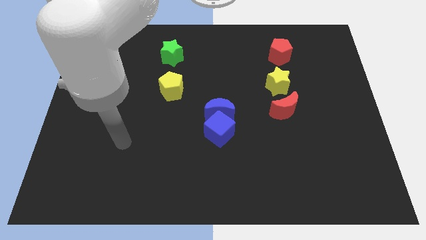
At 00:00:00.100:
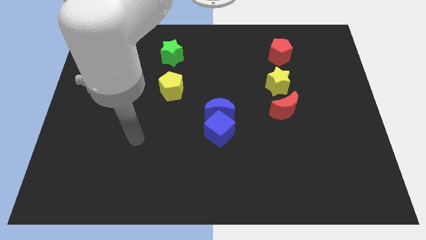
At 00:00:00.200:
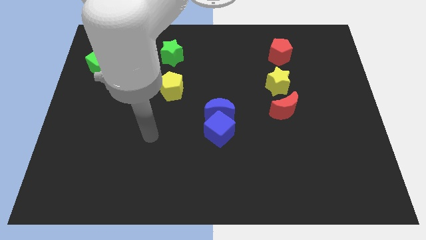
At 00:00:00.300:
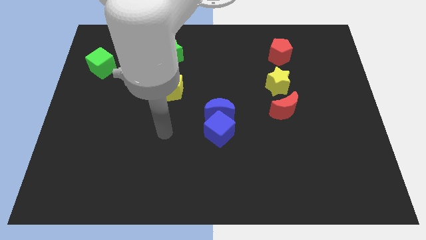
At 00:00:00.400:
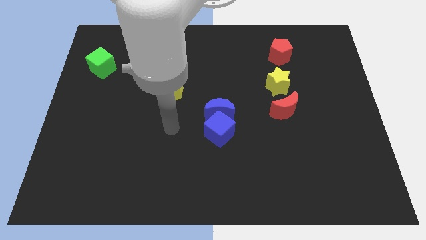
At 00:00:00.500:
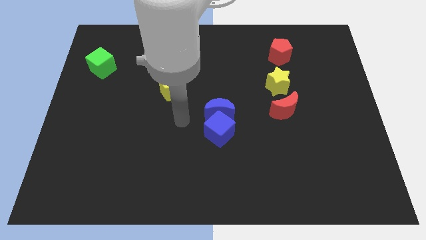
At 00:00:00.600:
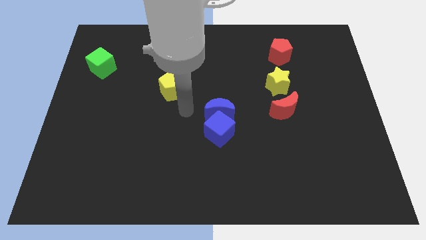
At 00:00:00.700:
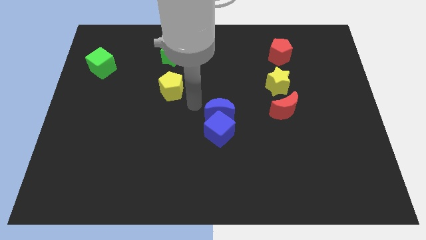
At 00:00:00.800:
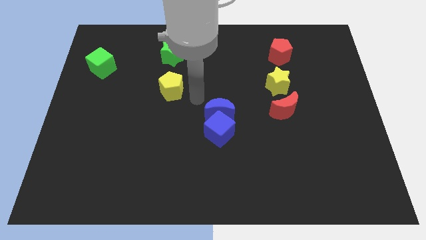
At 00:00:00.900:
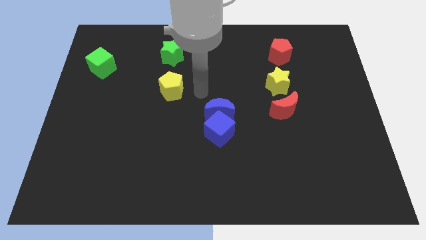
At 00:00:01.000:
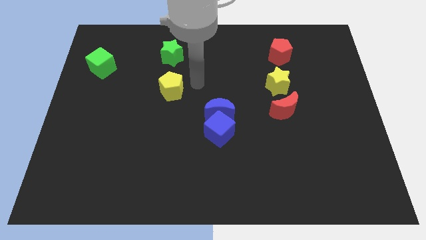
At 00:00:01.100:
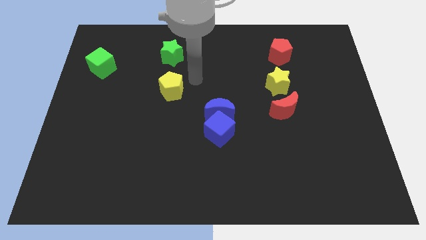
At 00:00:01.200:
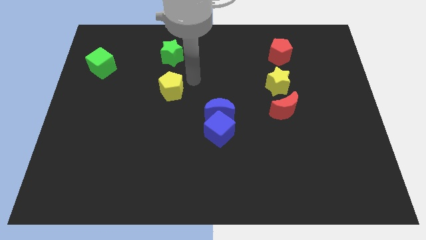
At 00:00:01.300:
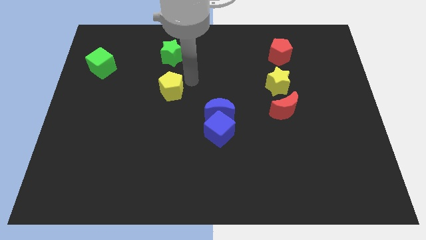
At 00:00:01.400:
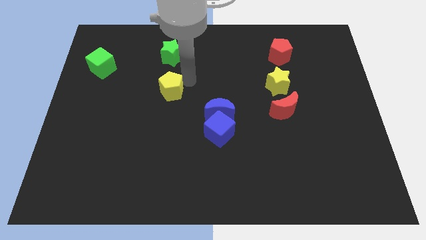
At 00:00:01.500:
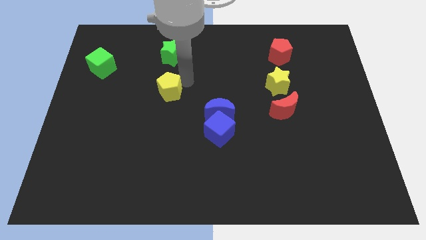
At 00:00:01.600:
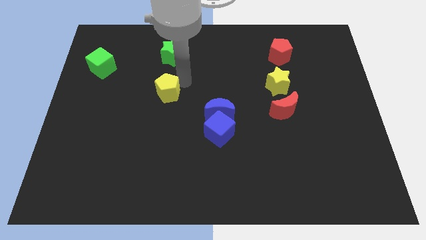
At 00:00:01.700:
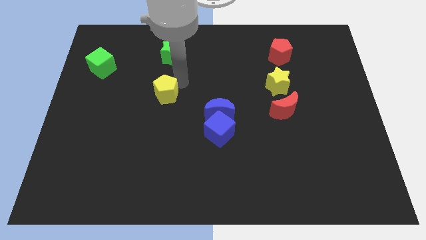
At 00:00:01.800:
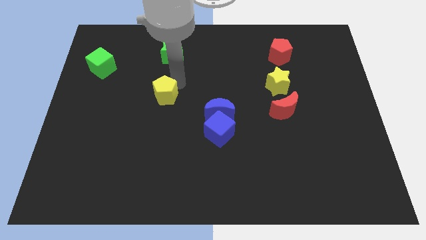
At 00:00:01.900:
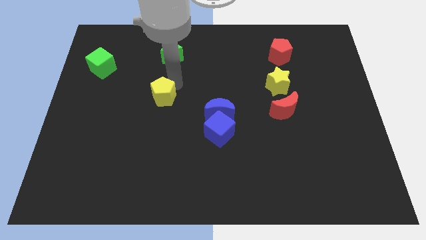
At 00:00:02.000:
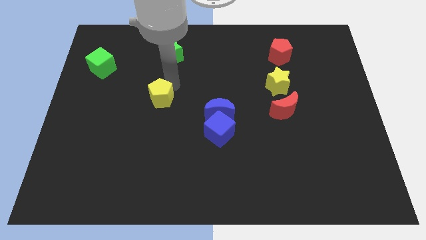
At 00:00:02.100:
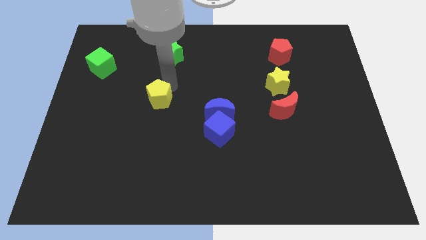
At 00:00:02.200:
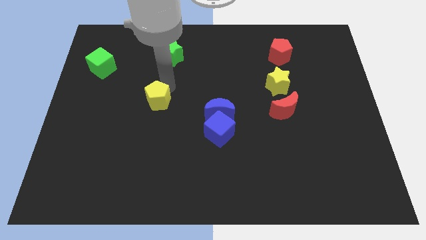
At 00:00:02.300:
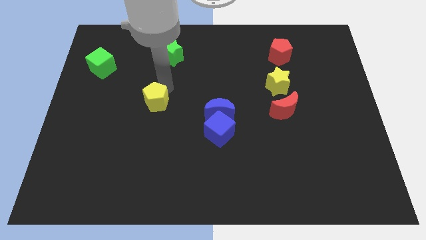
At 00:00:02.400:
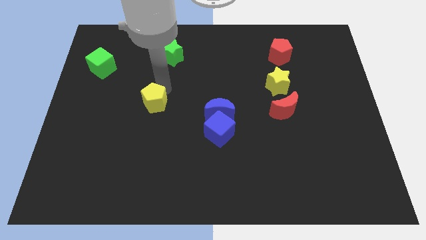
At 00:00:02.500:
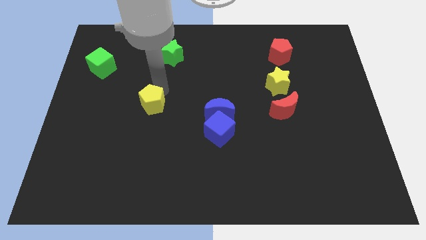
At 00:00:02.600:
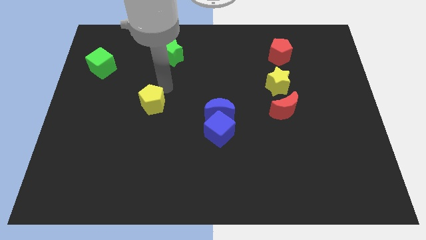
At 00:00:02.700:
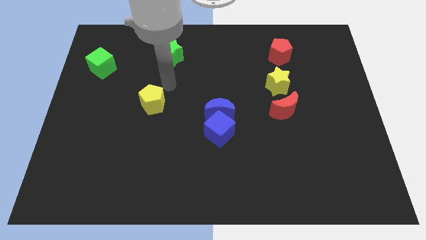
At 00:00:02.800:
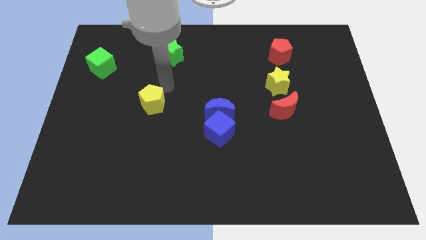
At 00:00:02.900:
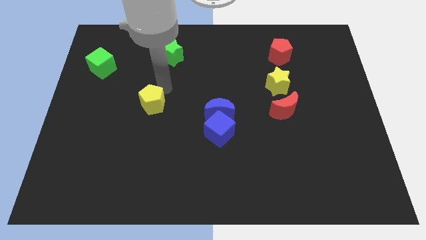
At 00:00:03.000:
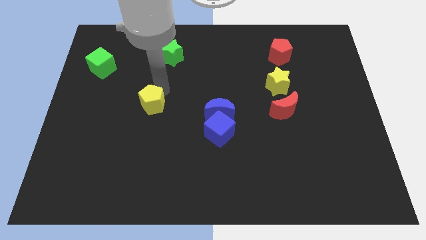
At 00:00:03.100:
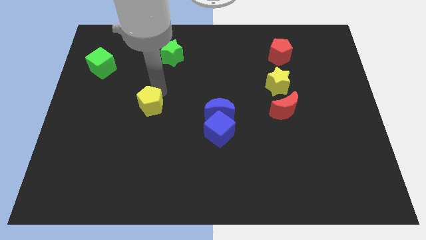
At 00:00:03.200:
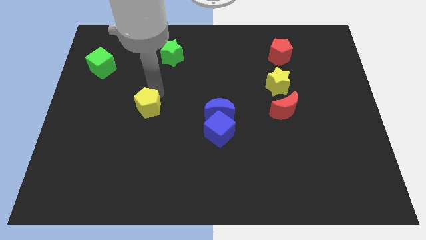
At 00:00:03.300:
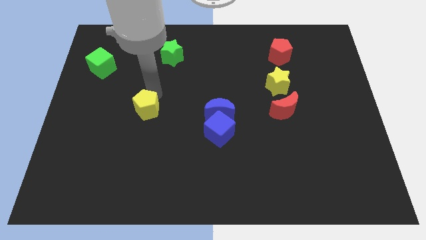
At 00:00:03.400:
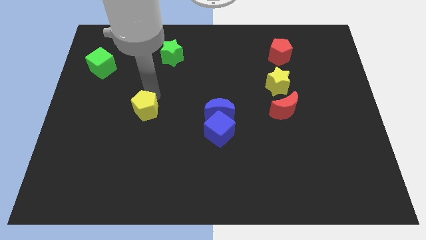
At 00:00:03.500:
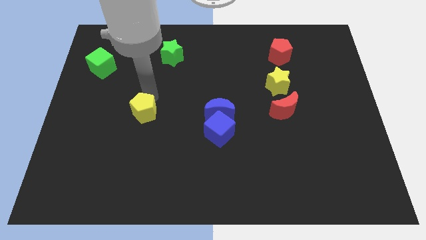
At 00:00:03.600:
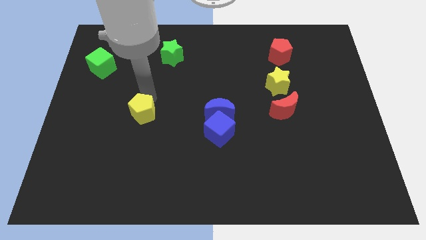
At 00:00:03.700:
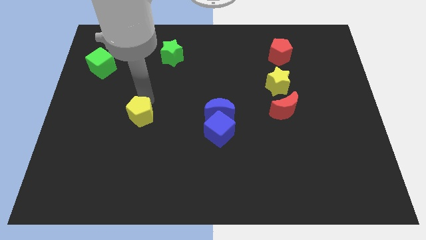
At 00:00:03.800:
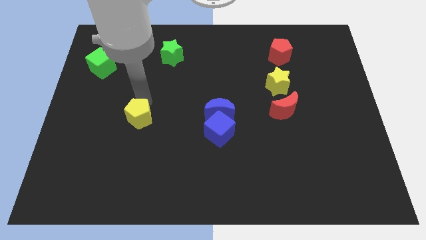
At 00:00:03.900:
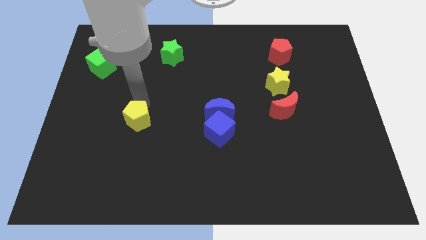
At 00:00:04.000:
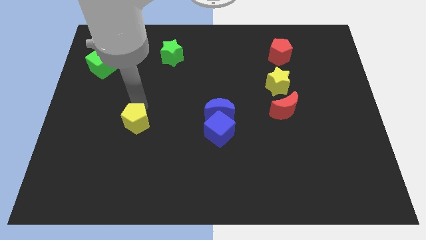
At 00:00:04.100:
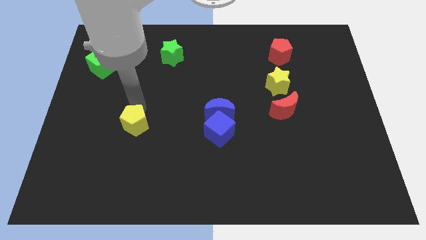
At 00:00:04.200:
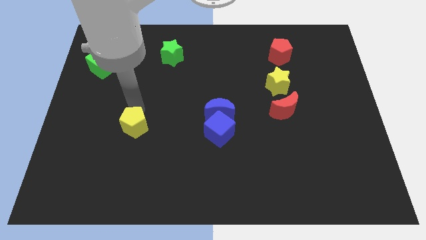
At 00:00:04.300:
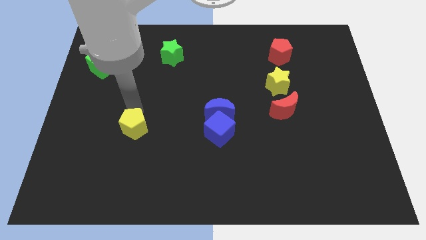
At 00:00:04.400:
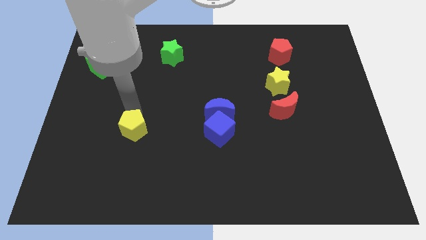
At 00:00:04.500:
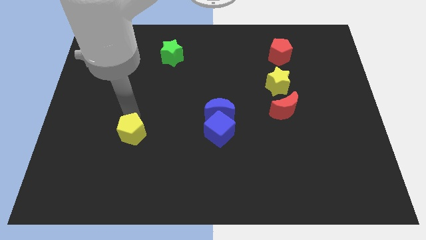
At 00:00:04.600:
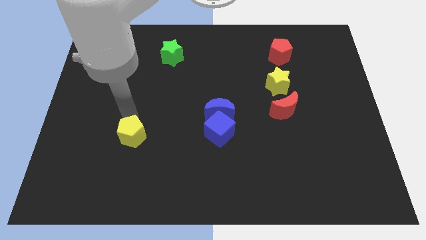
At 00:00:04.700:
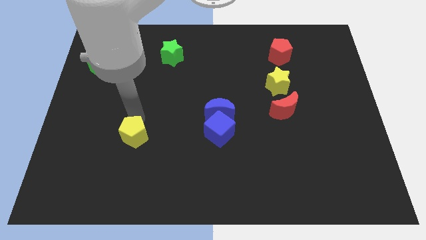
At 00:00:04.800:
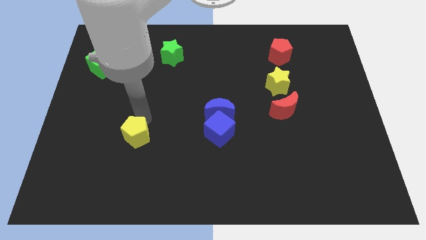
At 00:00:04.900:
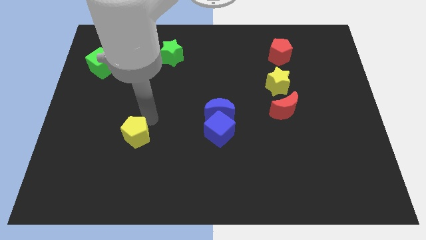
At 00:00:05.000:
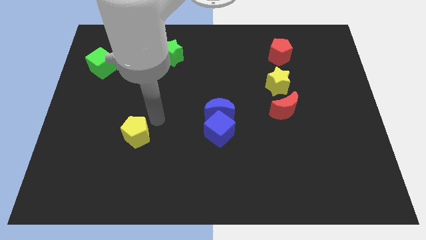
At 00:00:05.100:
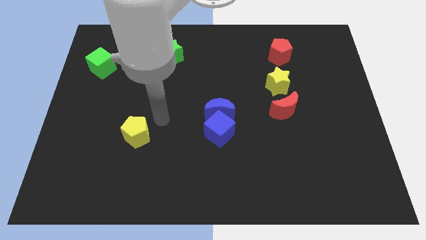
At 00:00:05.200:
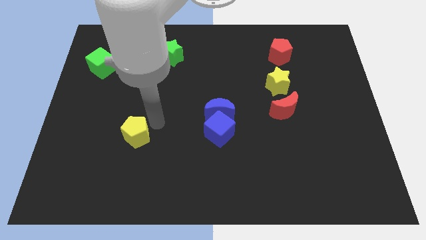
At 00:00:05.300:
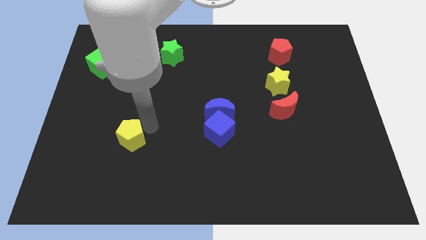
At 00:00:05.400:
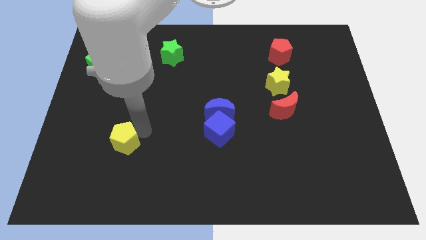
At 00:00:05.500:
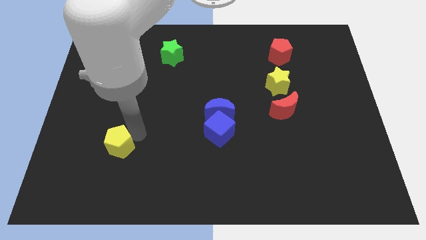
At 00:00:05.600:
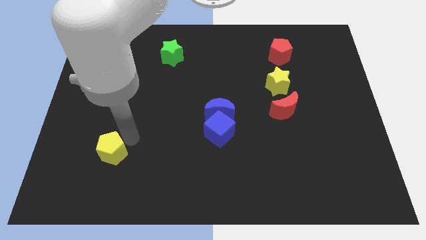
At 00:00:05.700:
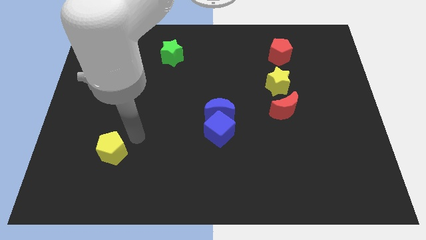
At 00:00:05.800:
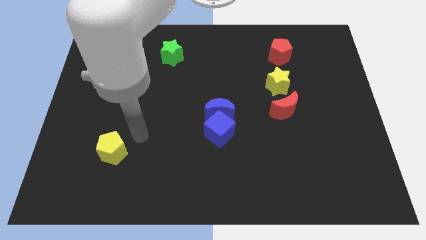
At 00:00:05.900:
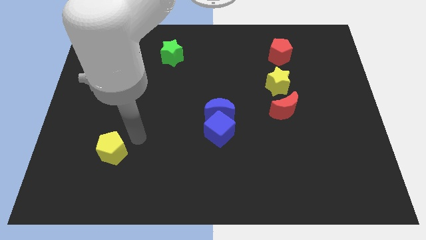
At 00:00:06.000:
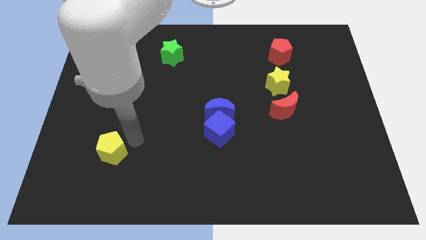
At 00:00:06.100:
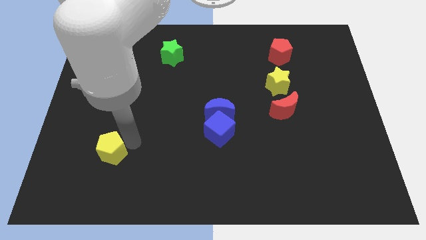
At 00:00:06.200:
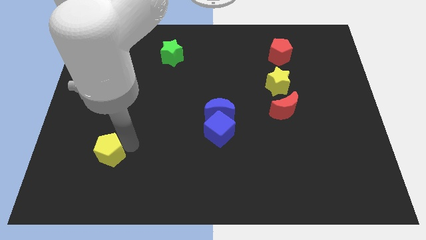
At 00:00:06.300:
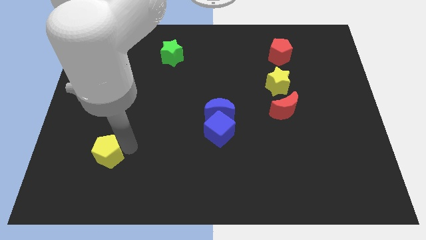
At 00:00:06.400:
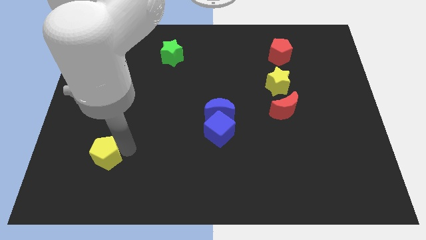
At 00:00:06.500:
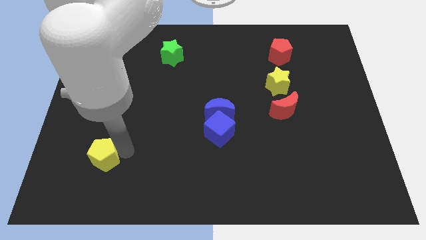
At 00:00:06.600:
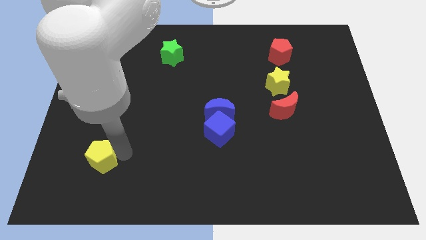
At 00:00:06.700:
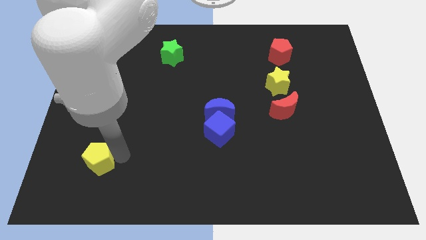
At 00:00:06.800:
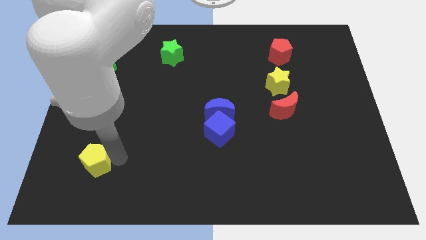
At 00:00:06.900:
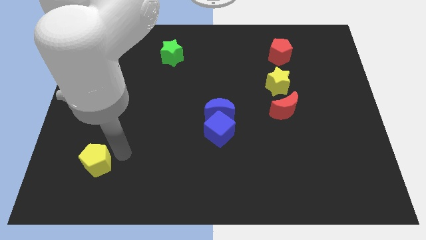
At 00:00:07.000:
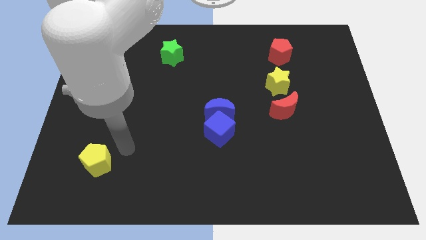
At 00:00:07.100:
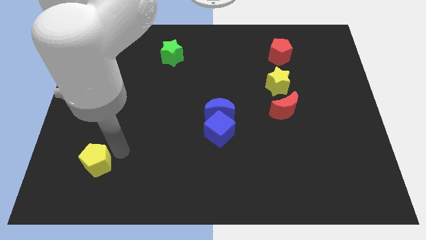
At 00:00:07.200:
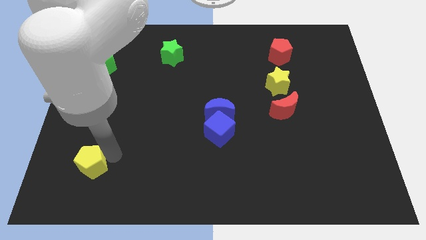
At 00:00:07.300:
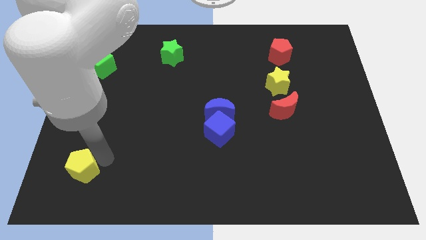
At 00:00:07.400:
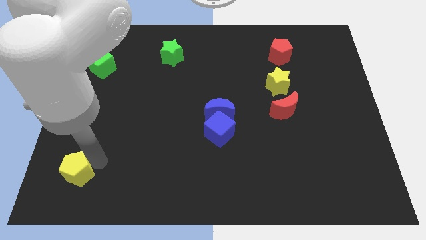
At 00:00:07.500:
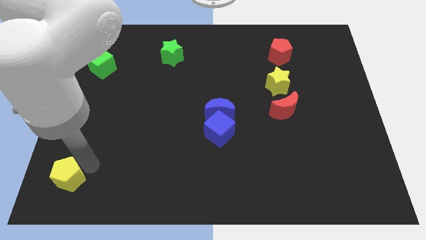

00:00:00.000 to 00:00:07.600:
put the yellow pentagon to the lower left corner
